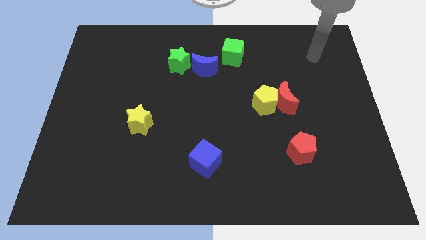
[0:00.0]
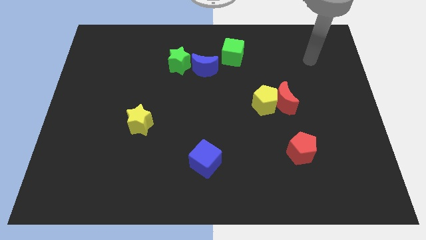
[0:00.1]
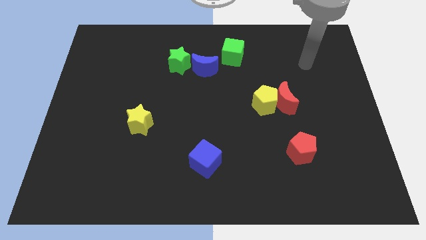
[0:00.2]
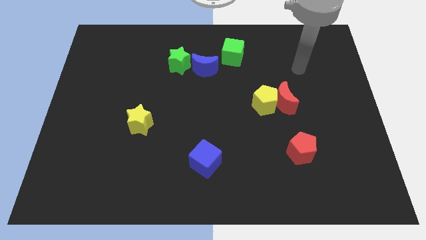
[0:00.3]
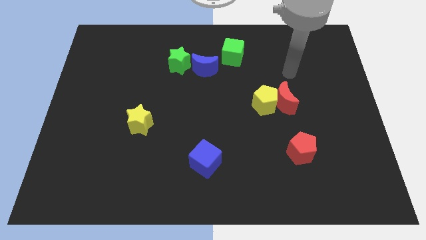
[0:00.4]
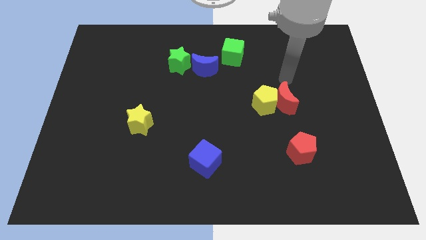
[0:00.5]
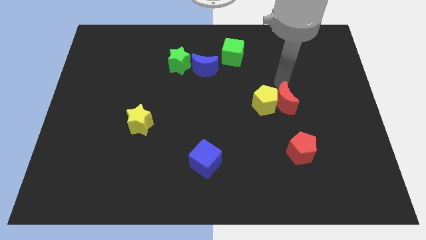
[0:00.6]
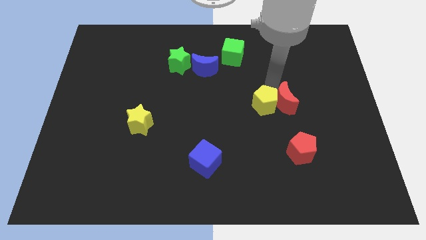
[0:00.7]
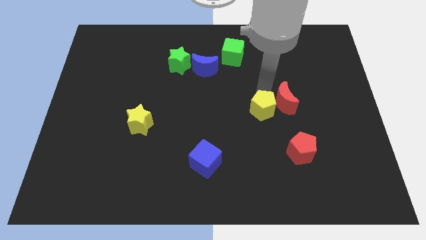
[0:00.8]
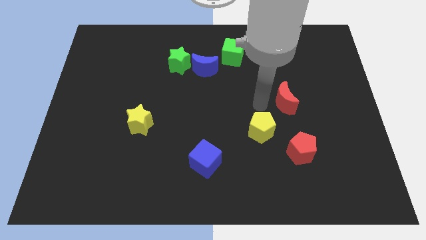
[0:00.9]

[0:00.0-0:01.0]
move the red moon away from the yellow pentagon

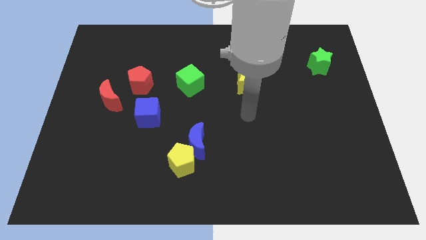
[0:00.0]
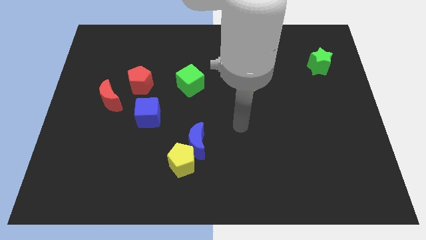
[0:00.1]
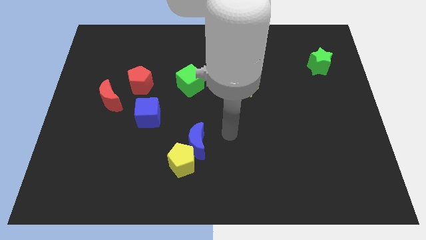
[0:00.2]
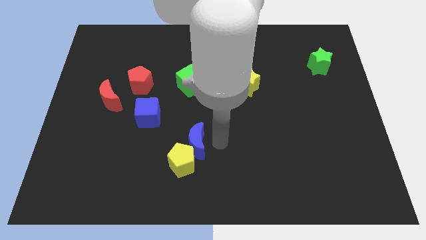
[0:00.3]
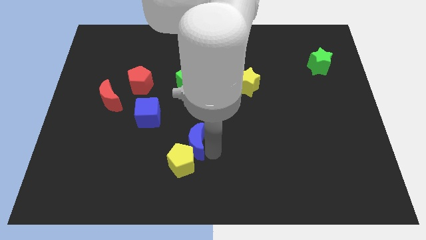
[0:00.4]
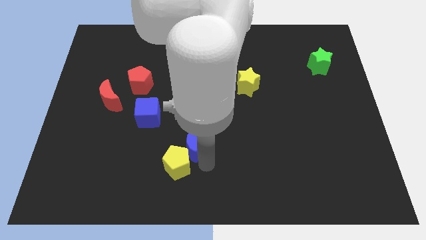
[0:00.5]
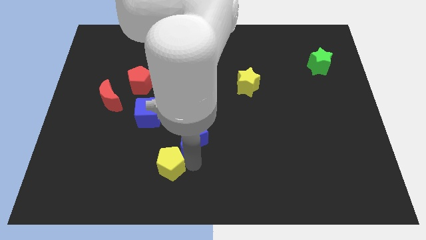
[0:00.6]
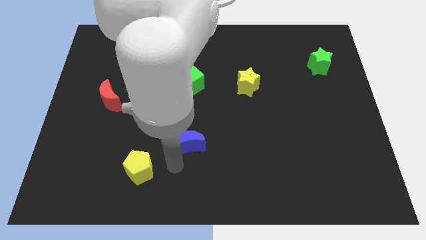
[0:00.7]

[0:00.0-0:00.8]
move the blue moon away from the yellow pentagon

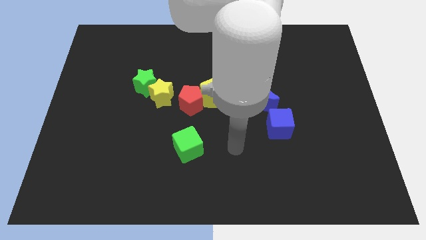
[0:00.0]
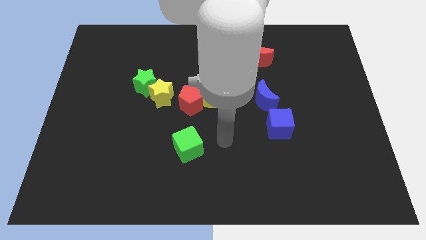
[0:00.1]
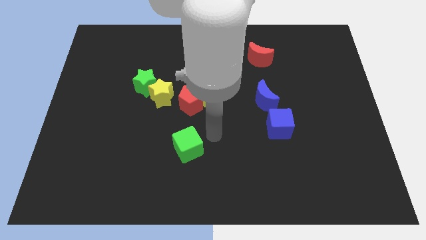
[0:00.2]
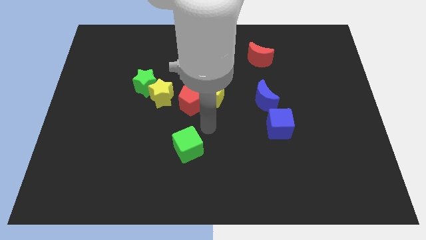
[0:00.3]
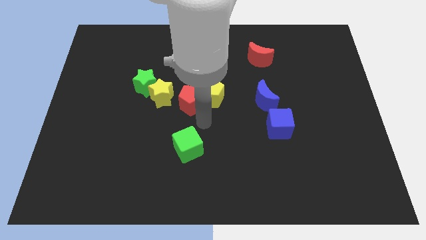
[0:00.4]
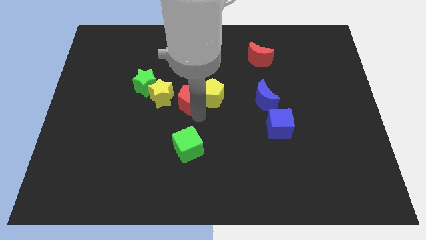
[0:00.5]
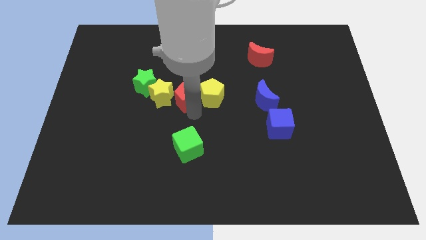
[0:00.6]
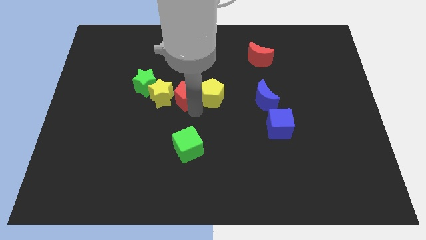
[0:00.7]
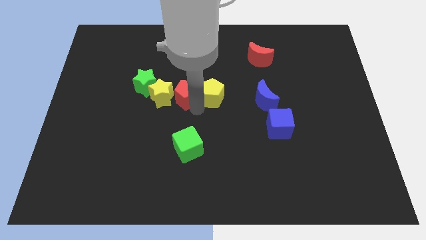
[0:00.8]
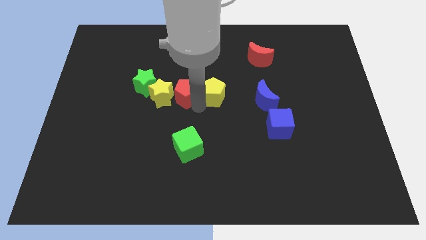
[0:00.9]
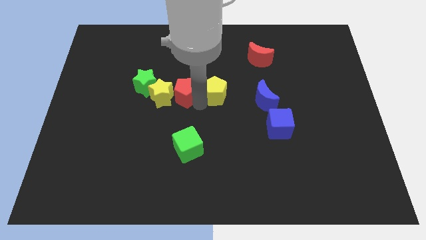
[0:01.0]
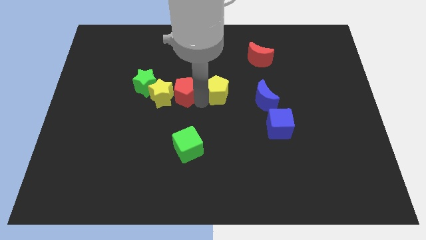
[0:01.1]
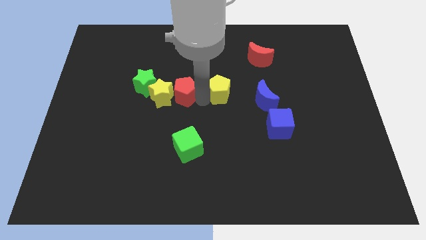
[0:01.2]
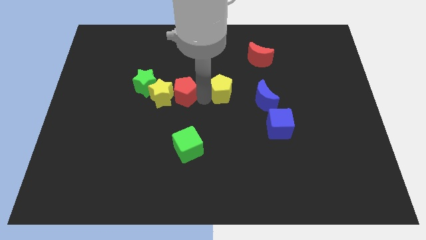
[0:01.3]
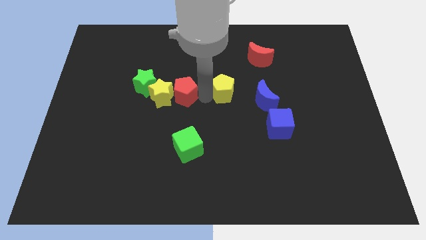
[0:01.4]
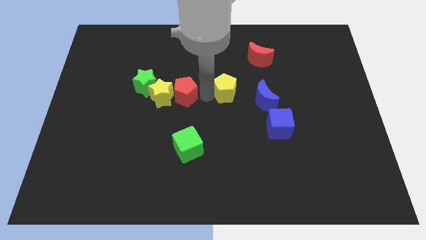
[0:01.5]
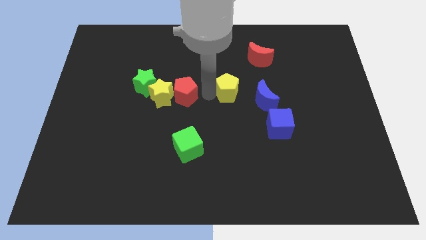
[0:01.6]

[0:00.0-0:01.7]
separate the yellow pentagon from the red pentagon

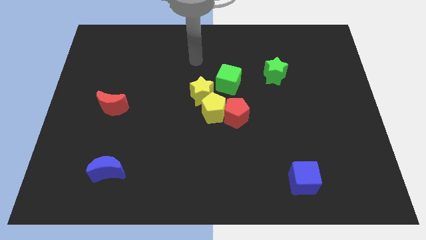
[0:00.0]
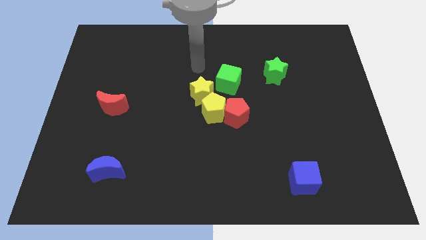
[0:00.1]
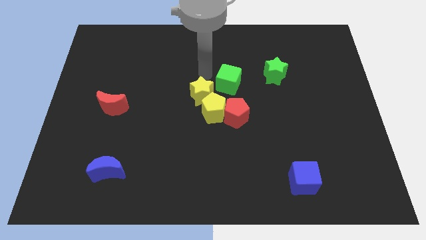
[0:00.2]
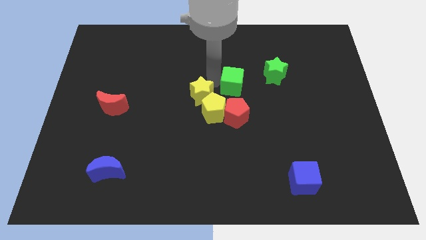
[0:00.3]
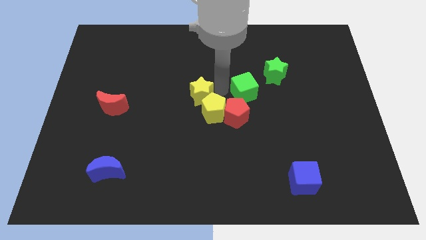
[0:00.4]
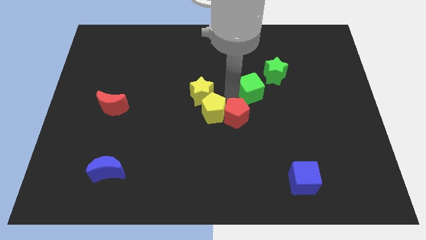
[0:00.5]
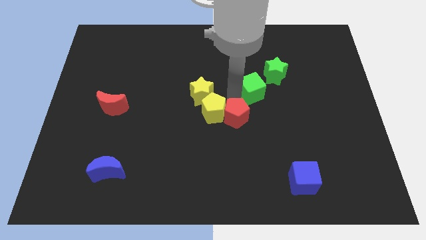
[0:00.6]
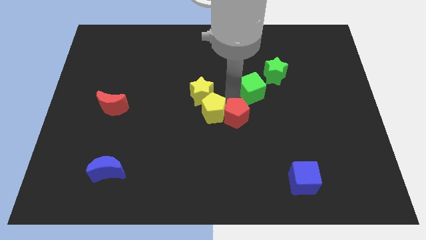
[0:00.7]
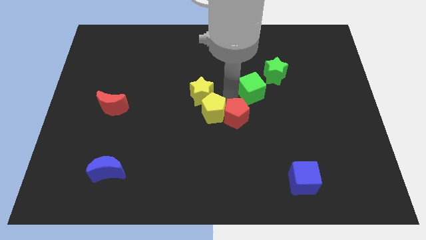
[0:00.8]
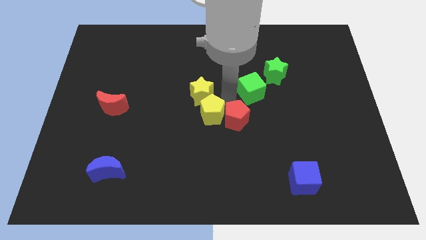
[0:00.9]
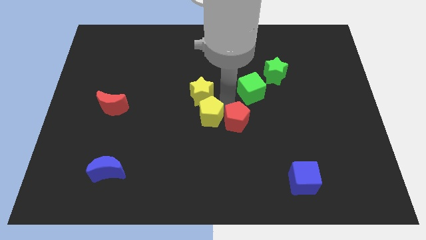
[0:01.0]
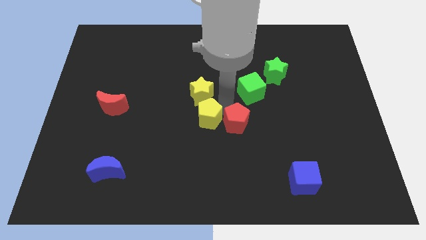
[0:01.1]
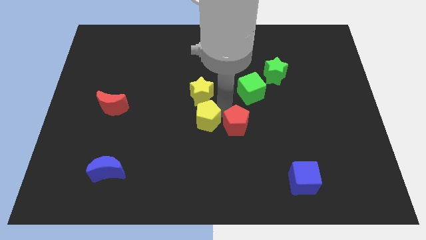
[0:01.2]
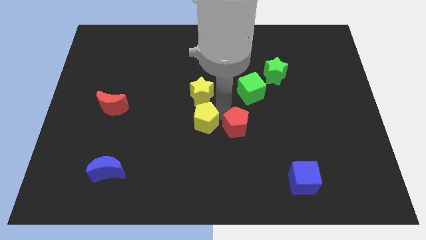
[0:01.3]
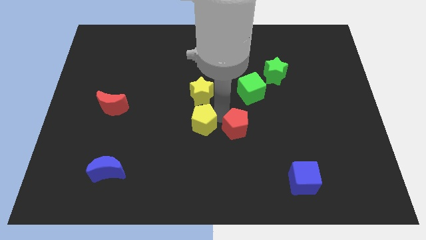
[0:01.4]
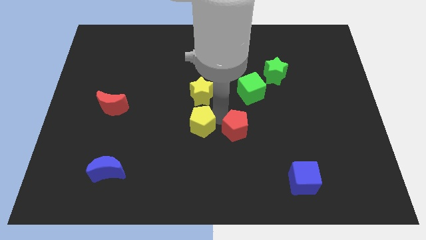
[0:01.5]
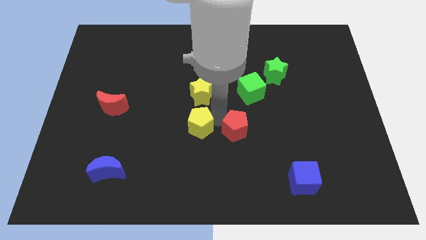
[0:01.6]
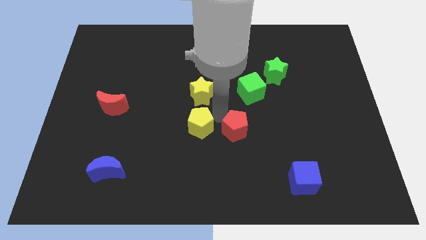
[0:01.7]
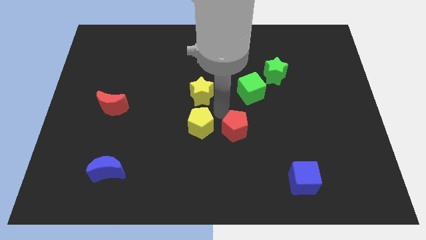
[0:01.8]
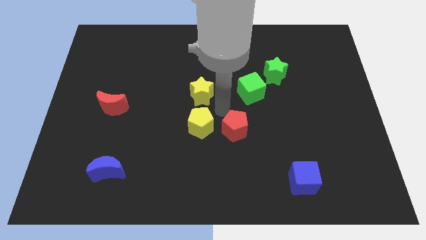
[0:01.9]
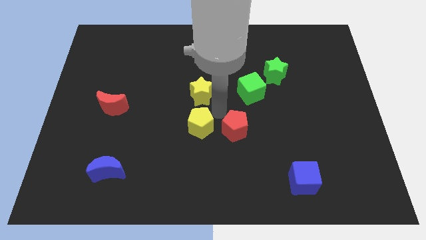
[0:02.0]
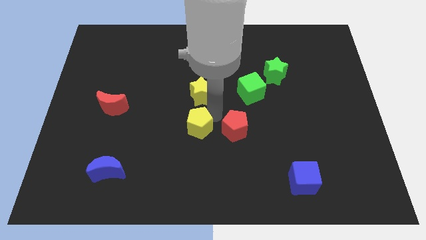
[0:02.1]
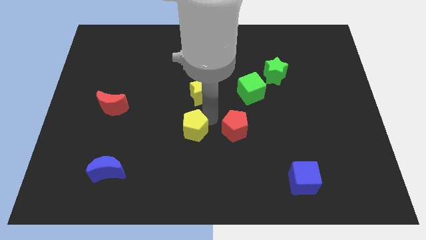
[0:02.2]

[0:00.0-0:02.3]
separate the yellow pentagon from the red pentagon, yellow star, and green cube

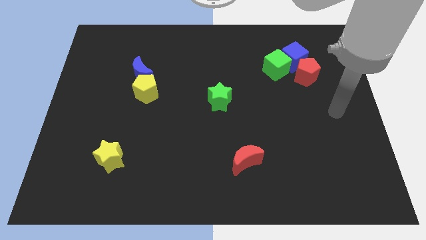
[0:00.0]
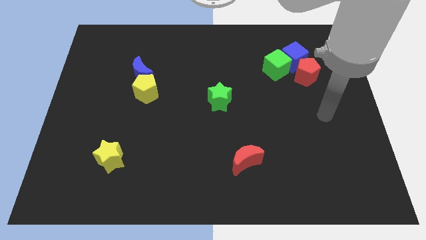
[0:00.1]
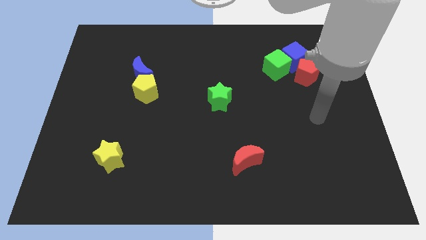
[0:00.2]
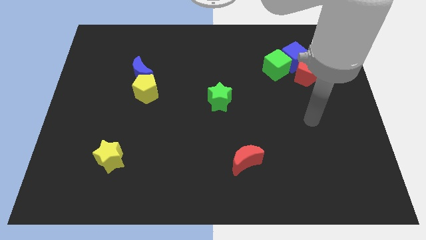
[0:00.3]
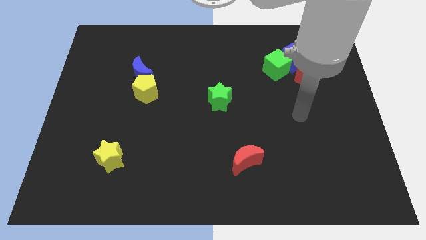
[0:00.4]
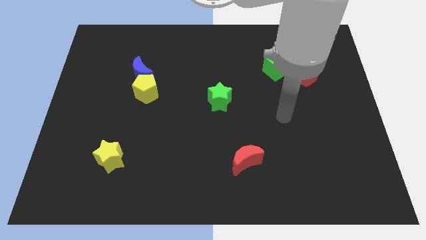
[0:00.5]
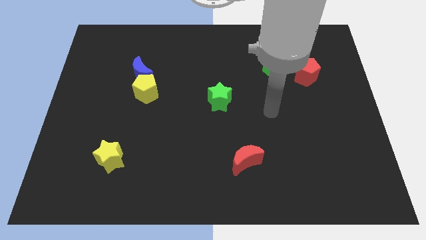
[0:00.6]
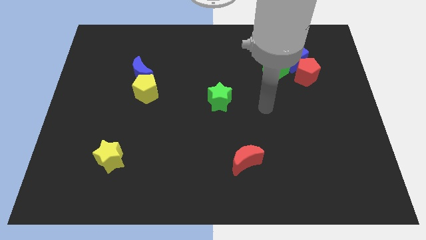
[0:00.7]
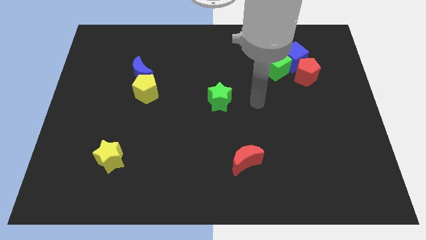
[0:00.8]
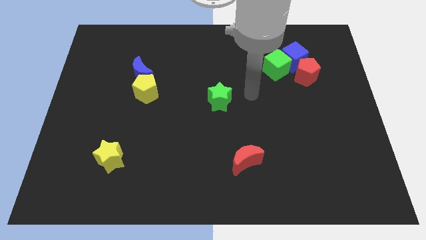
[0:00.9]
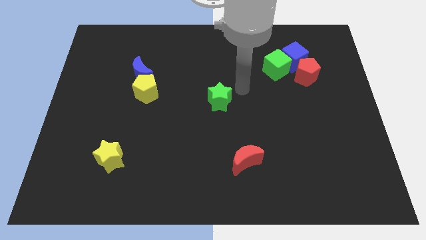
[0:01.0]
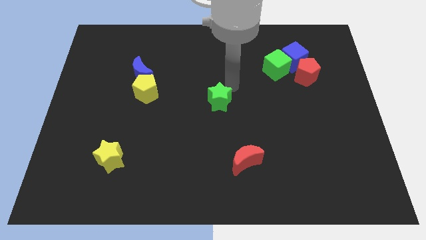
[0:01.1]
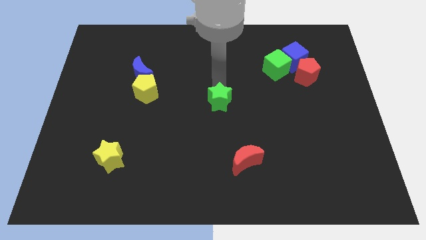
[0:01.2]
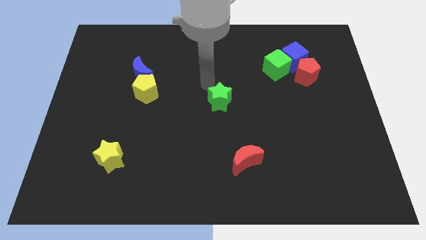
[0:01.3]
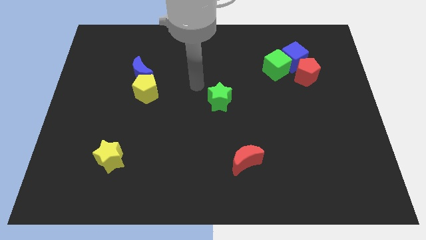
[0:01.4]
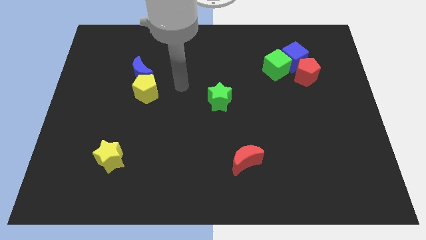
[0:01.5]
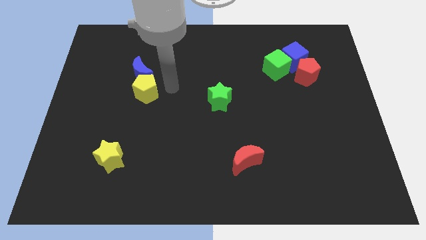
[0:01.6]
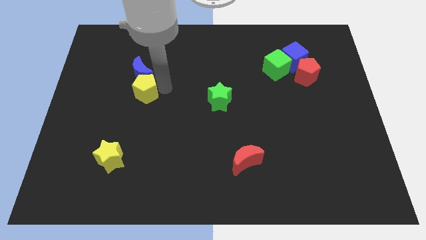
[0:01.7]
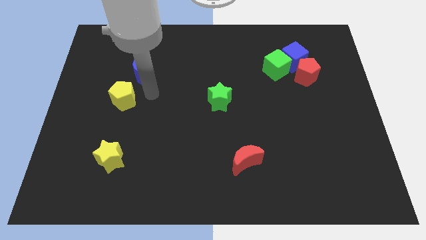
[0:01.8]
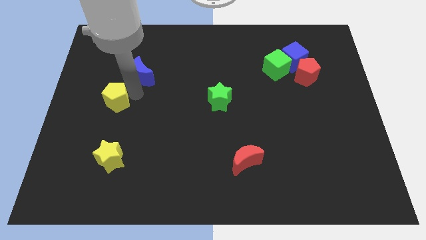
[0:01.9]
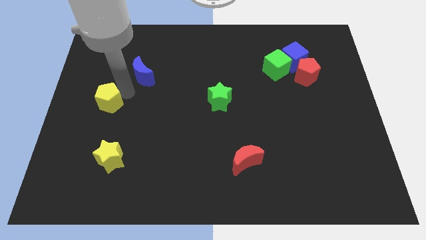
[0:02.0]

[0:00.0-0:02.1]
separate the blue moon from the yellow pentagon

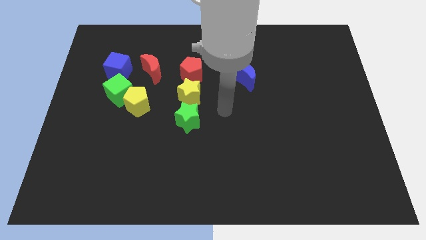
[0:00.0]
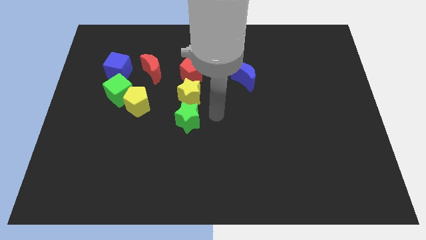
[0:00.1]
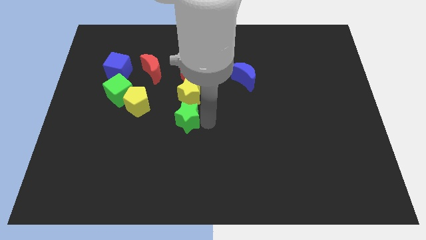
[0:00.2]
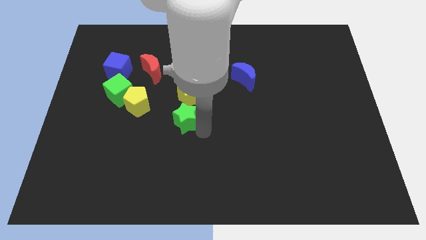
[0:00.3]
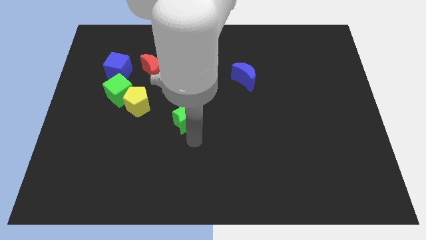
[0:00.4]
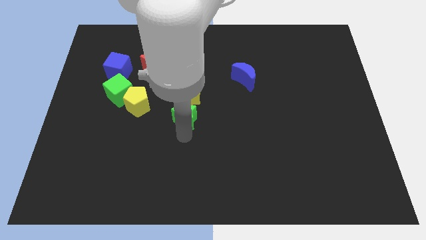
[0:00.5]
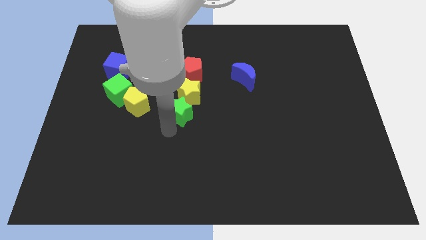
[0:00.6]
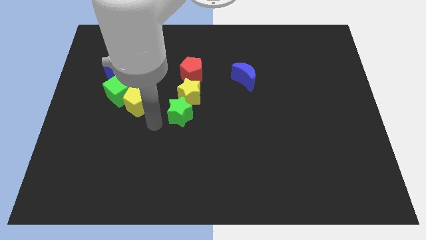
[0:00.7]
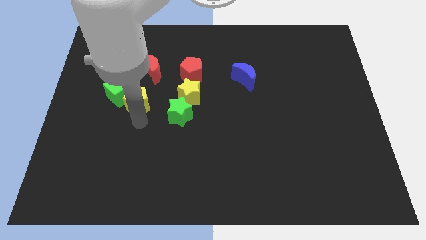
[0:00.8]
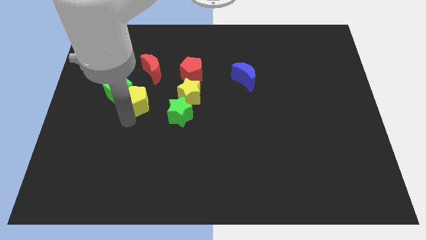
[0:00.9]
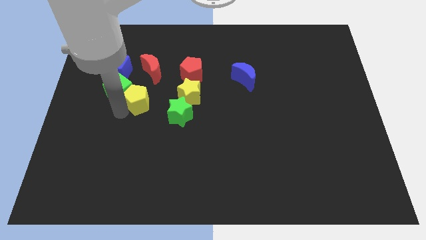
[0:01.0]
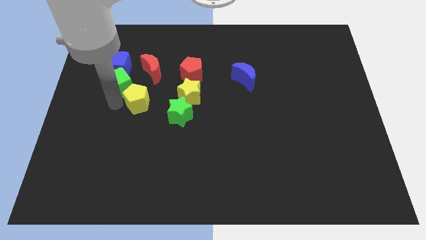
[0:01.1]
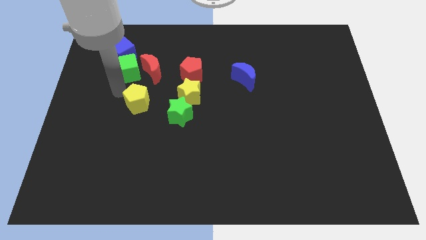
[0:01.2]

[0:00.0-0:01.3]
move the yellow pentagon away from the green cube
